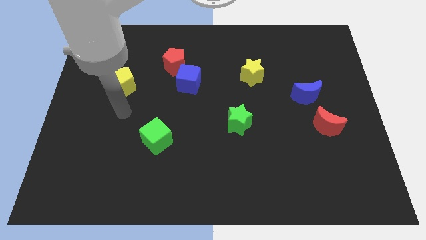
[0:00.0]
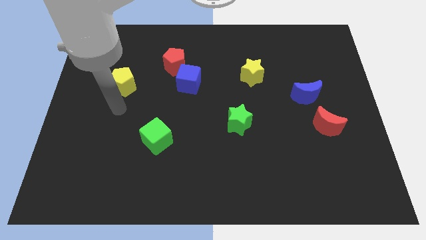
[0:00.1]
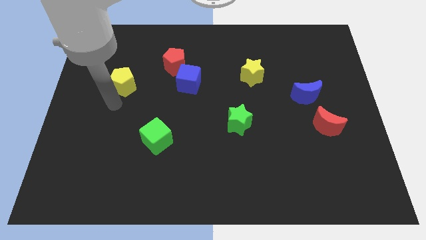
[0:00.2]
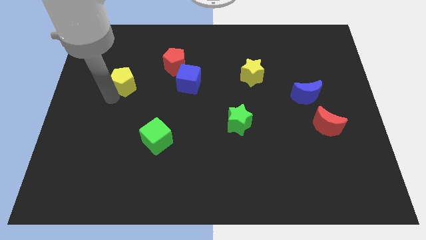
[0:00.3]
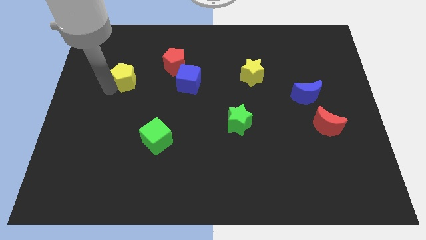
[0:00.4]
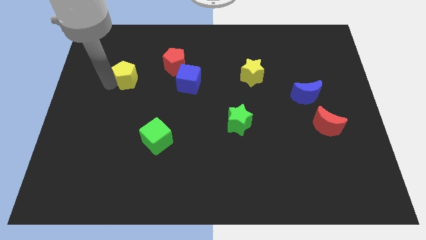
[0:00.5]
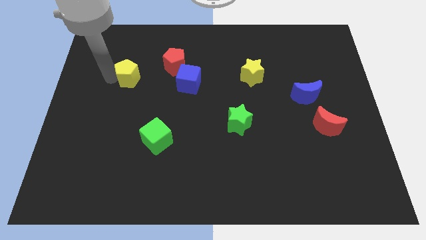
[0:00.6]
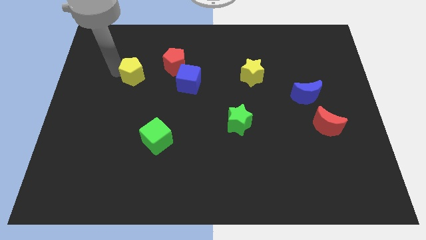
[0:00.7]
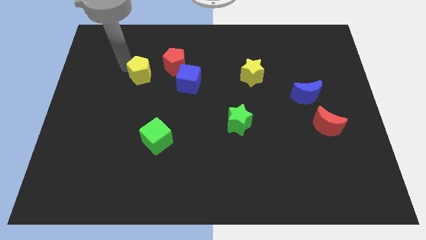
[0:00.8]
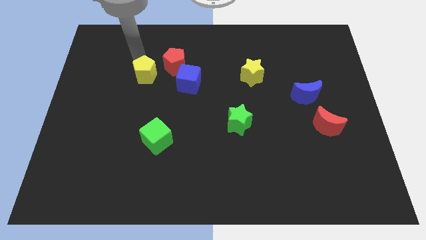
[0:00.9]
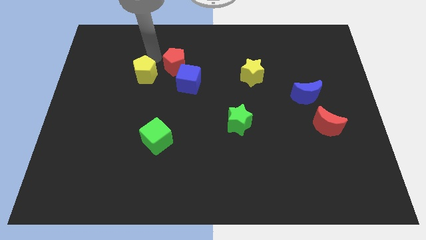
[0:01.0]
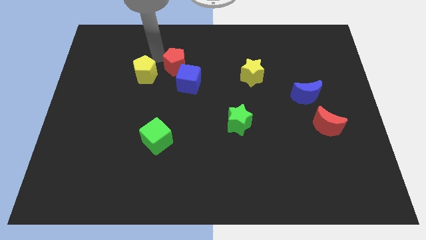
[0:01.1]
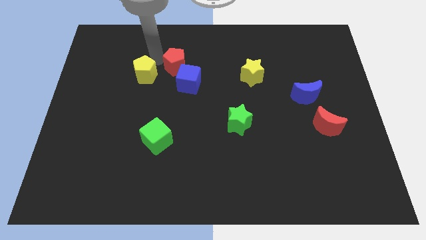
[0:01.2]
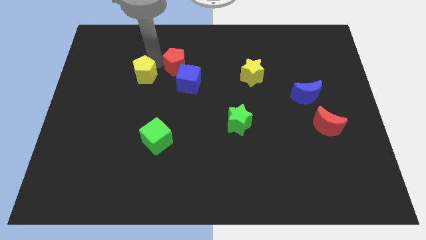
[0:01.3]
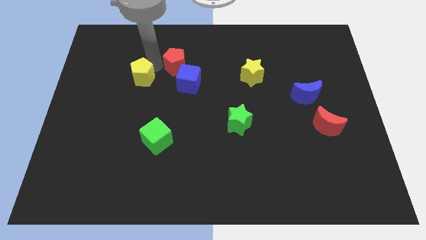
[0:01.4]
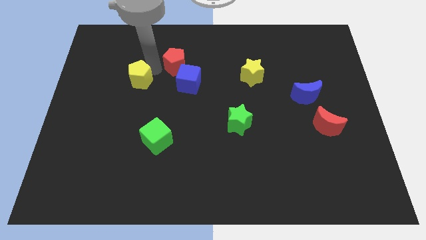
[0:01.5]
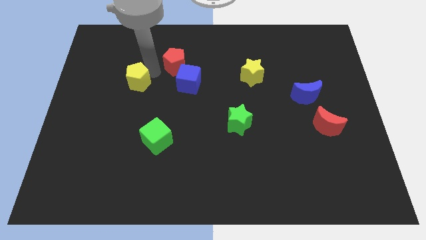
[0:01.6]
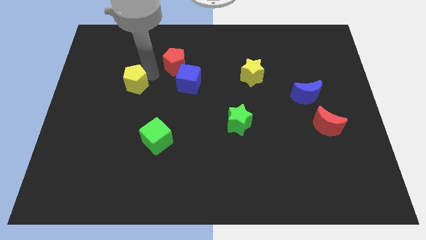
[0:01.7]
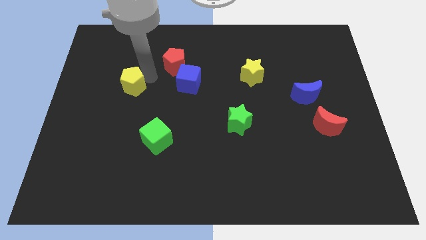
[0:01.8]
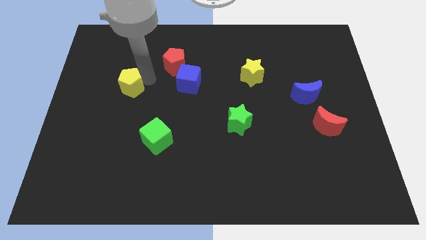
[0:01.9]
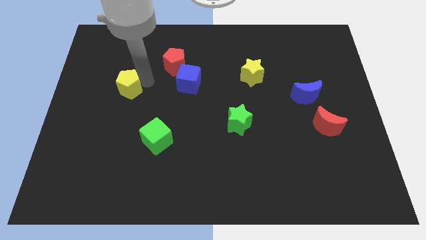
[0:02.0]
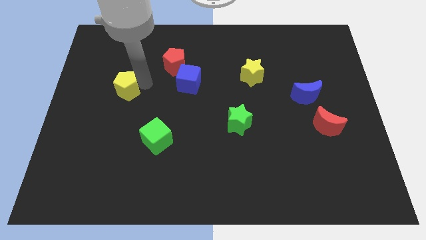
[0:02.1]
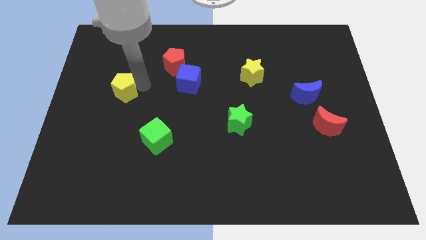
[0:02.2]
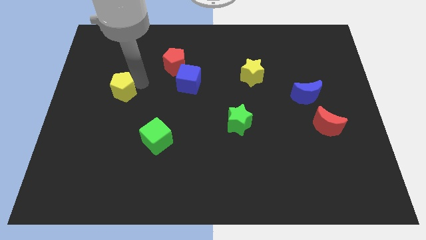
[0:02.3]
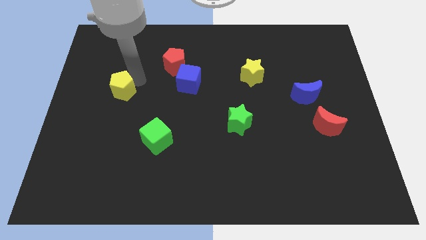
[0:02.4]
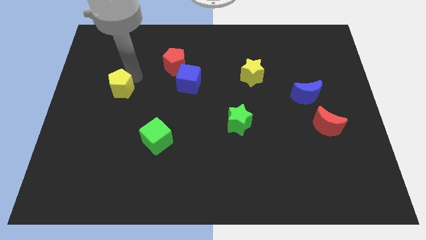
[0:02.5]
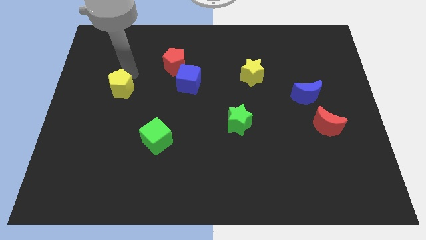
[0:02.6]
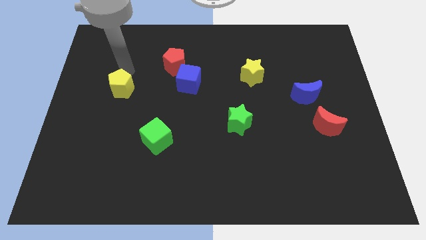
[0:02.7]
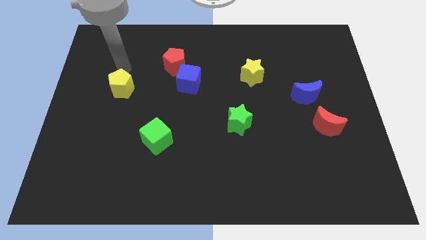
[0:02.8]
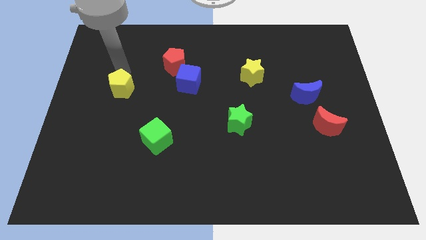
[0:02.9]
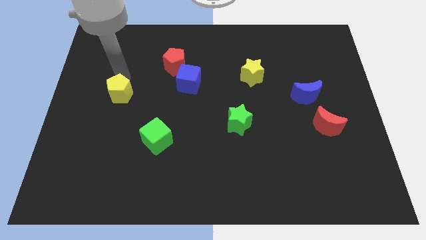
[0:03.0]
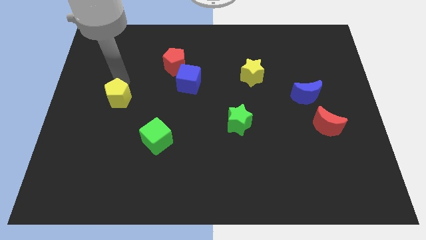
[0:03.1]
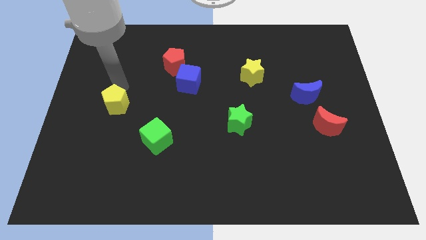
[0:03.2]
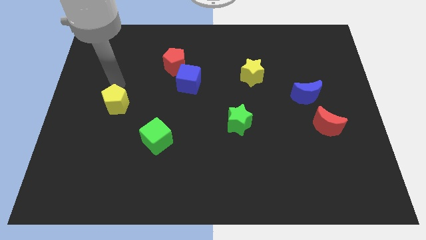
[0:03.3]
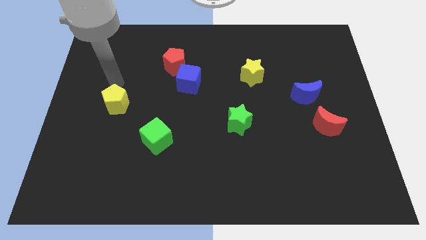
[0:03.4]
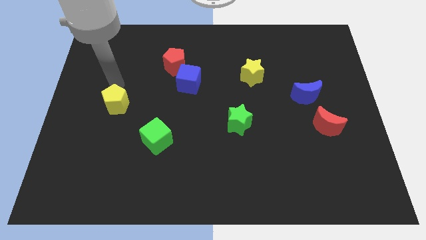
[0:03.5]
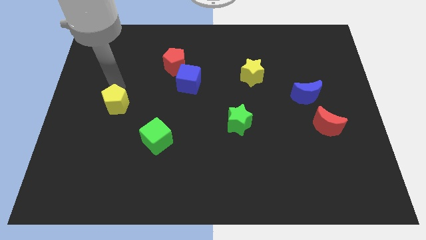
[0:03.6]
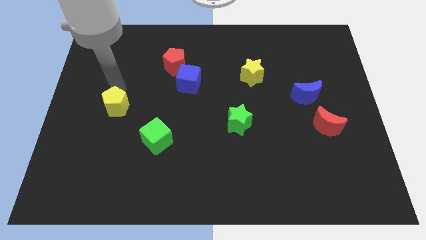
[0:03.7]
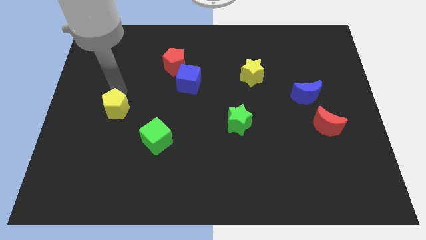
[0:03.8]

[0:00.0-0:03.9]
slightly slide the yellow pentagon down

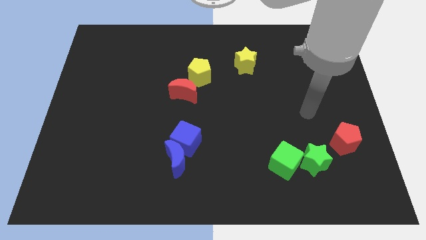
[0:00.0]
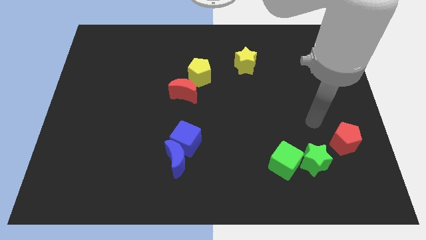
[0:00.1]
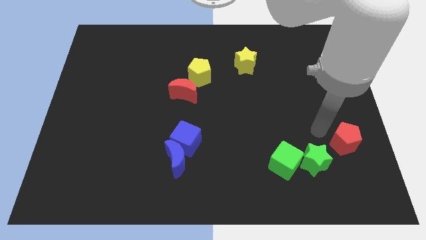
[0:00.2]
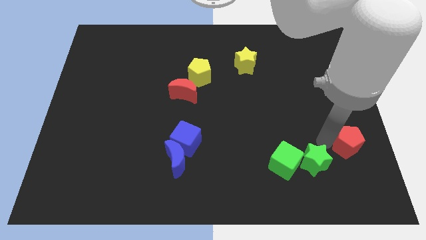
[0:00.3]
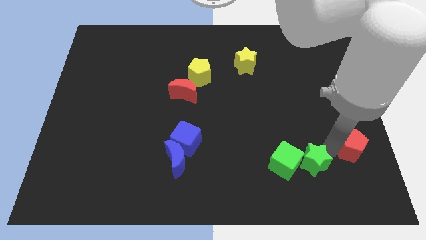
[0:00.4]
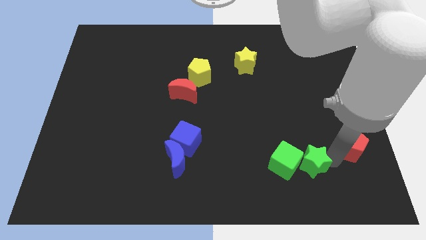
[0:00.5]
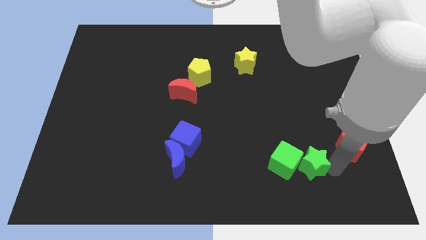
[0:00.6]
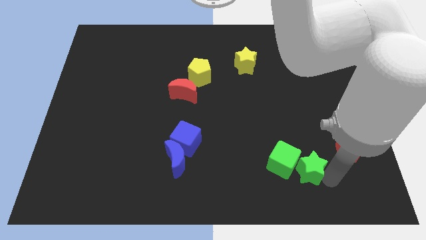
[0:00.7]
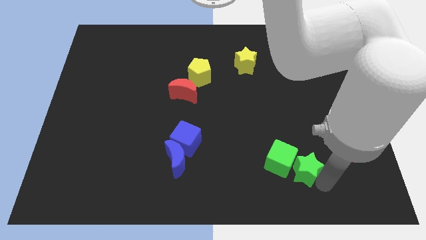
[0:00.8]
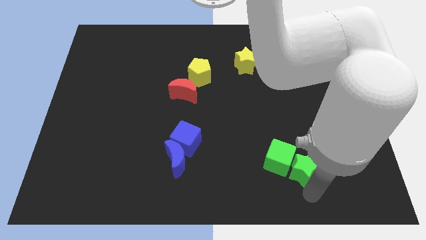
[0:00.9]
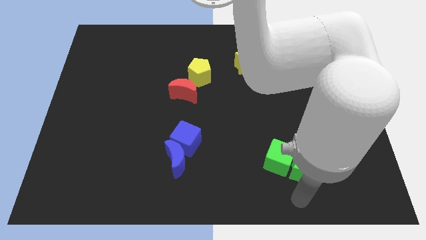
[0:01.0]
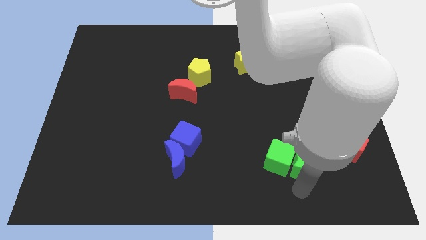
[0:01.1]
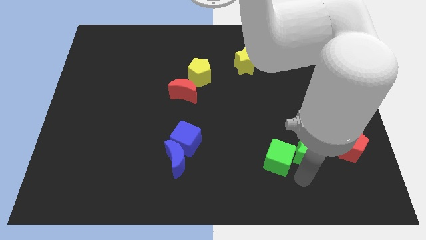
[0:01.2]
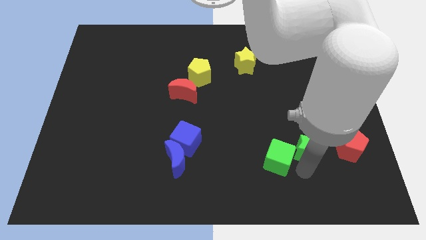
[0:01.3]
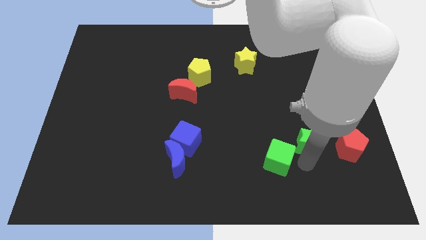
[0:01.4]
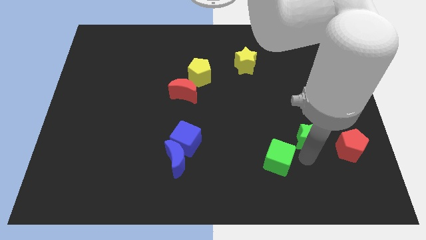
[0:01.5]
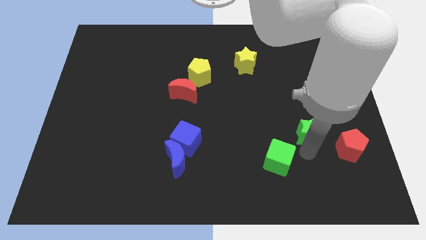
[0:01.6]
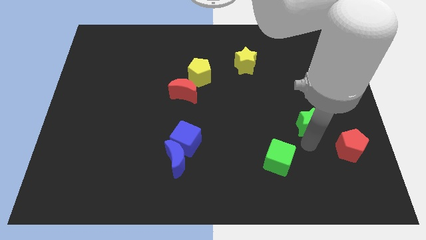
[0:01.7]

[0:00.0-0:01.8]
push the green star a bit upwards

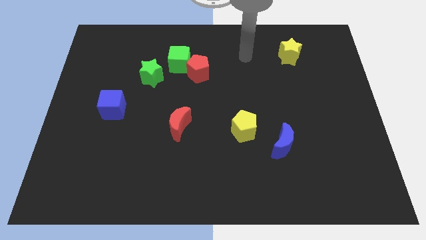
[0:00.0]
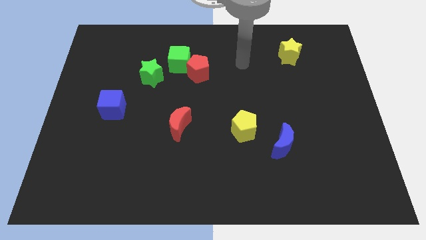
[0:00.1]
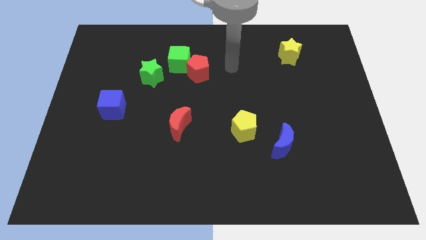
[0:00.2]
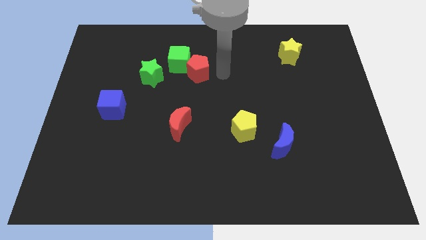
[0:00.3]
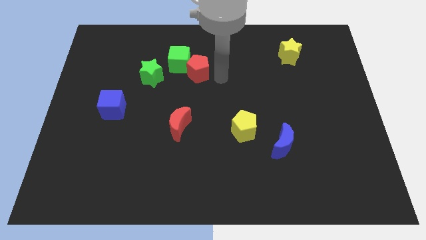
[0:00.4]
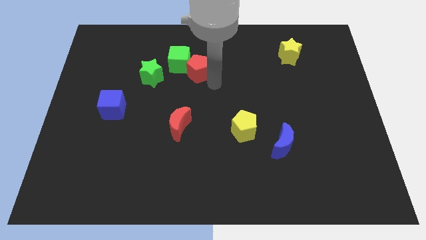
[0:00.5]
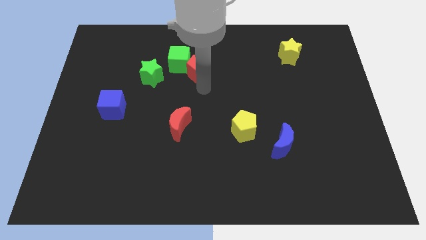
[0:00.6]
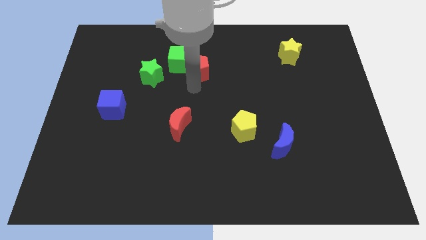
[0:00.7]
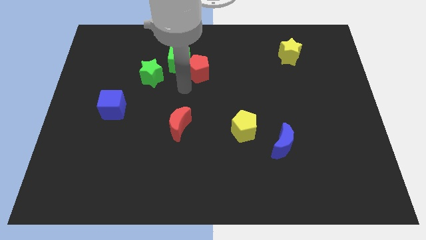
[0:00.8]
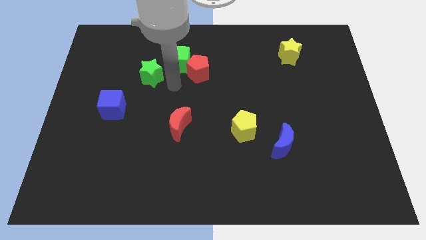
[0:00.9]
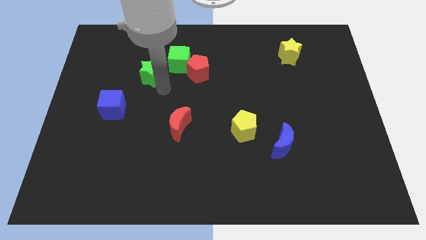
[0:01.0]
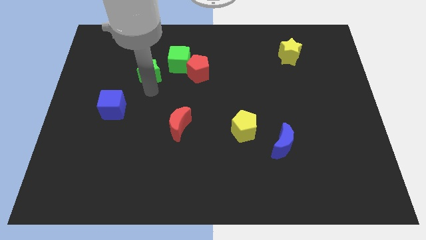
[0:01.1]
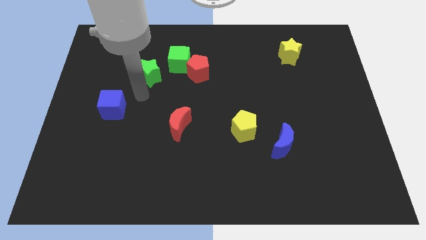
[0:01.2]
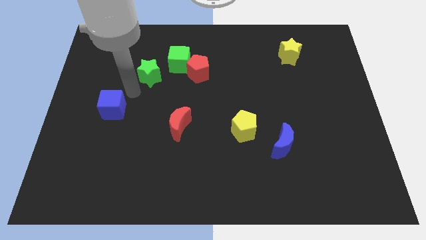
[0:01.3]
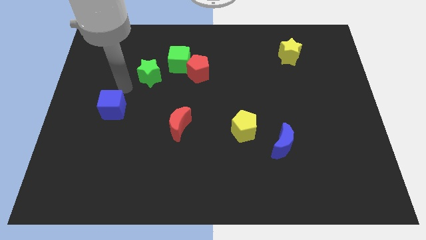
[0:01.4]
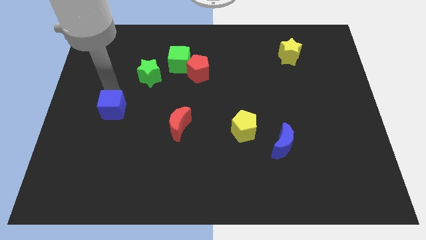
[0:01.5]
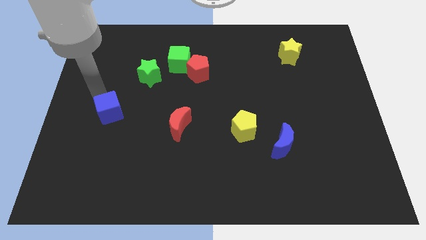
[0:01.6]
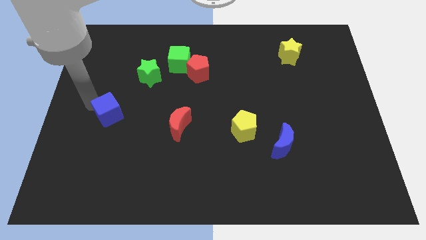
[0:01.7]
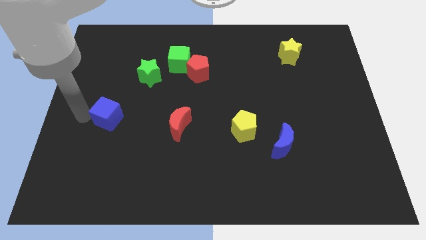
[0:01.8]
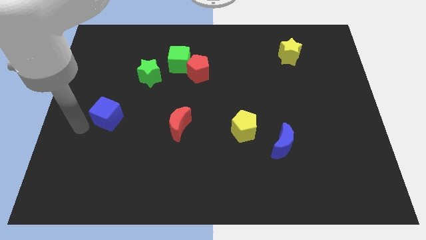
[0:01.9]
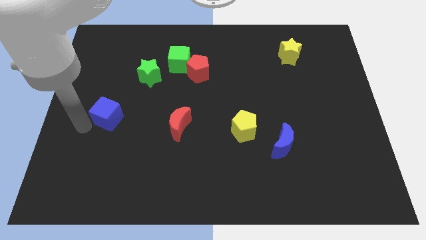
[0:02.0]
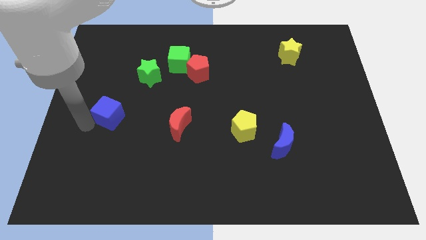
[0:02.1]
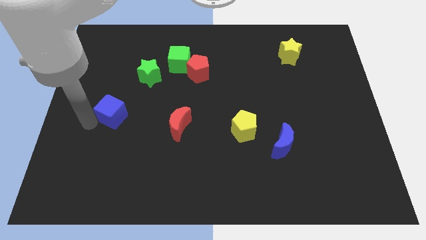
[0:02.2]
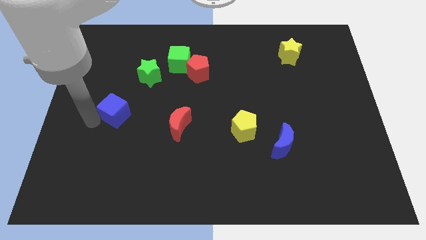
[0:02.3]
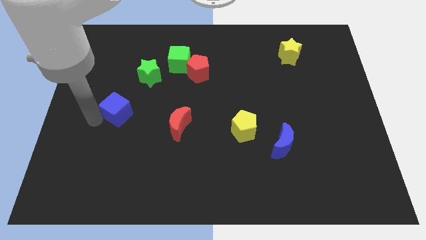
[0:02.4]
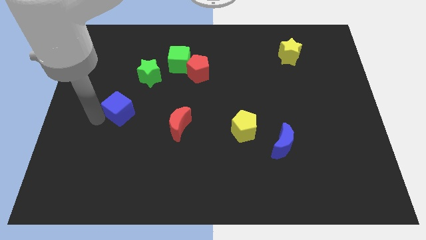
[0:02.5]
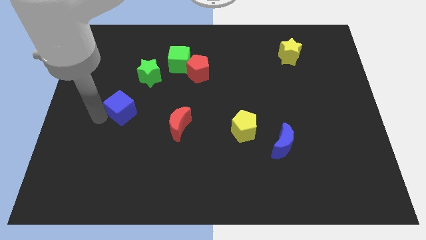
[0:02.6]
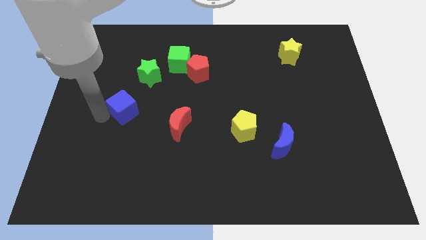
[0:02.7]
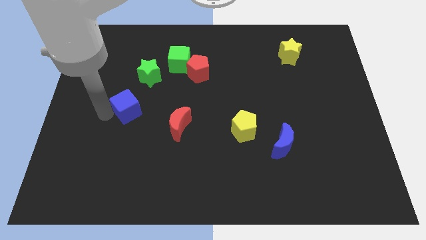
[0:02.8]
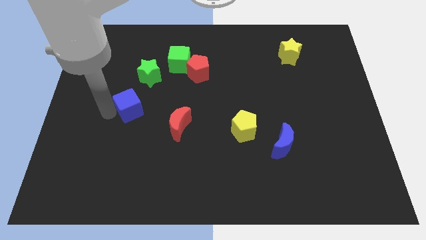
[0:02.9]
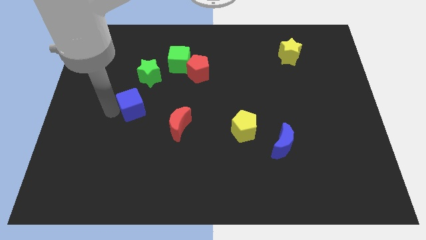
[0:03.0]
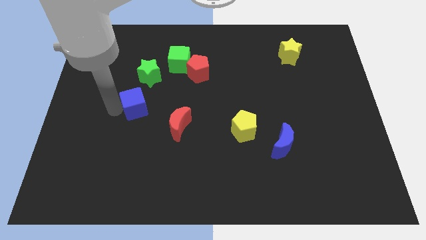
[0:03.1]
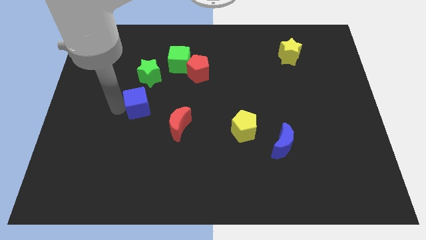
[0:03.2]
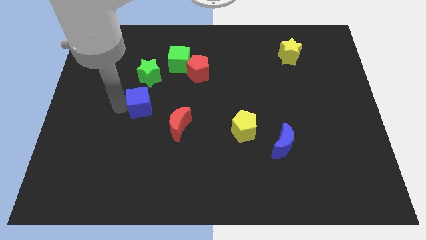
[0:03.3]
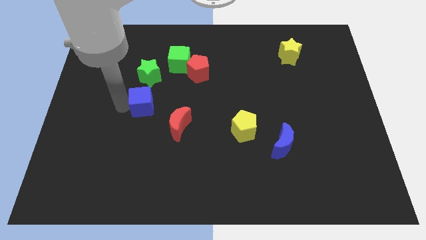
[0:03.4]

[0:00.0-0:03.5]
slide the blue cube a bit right
